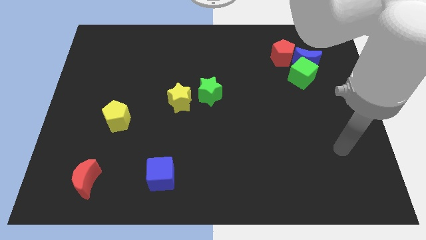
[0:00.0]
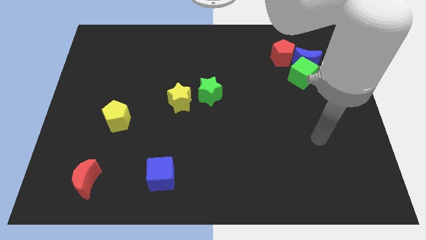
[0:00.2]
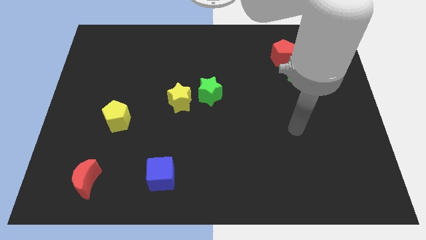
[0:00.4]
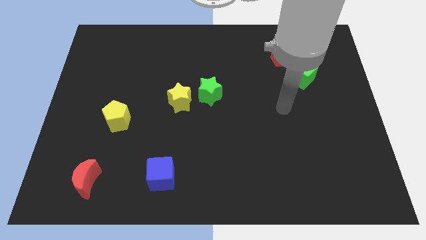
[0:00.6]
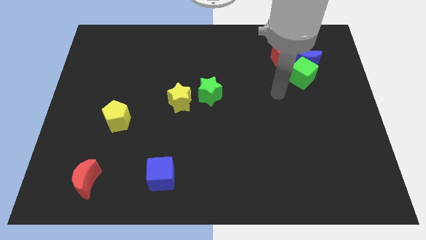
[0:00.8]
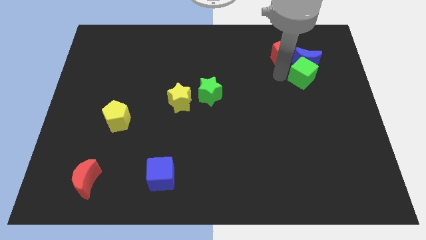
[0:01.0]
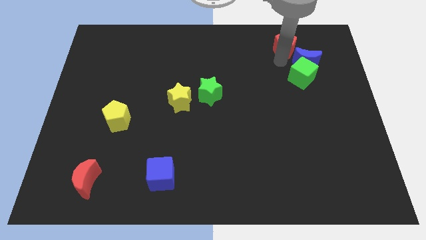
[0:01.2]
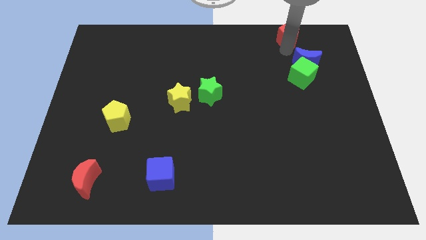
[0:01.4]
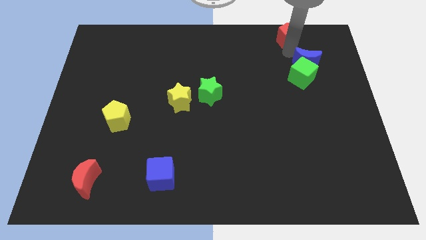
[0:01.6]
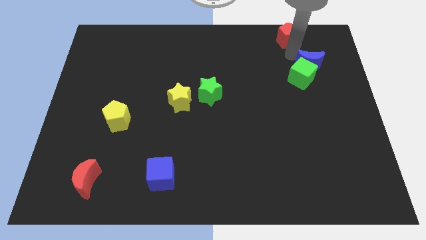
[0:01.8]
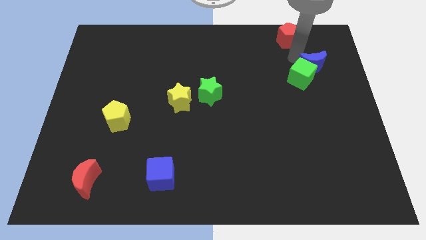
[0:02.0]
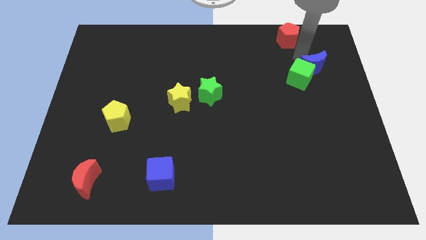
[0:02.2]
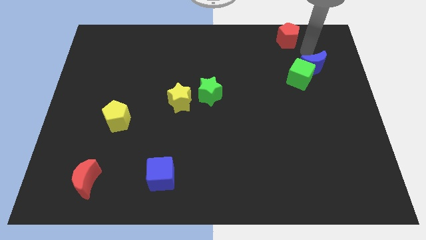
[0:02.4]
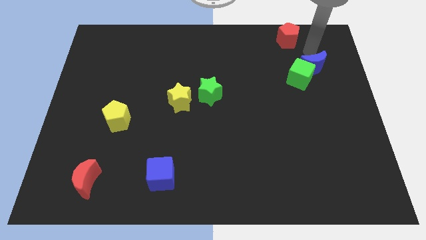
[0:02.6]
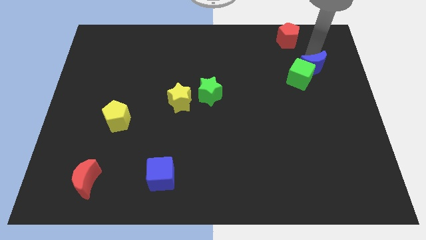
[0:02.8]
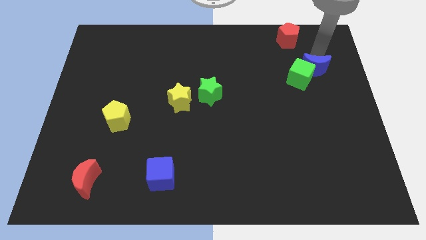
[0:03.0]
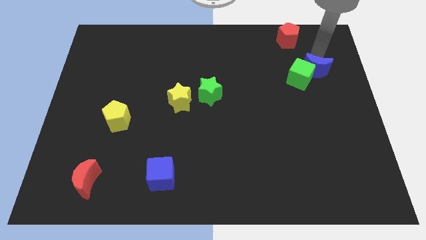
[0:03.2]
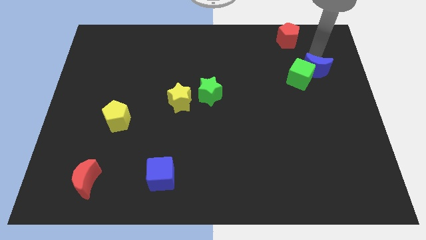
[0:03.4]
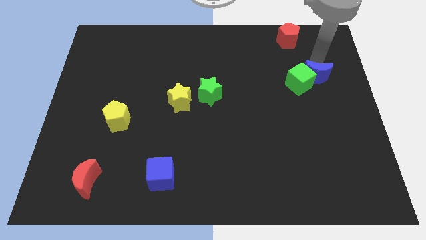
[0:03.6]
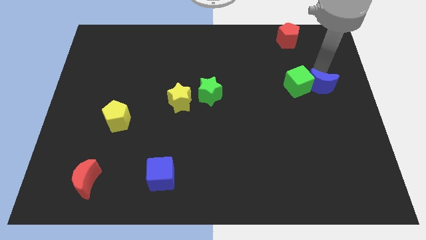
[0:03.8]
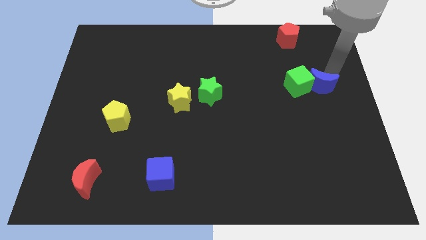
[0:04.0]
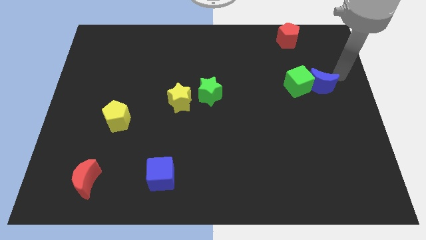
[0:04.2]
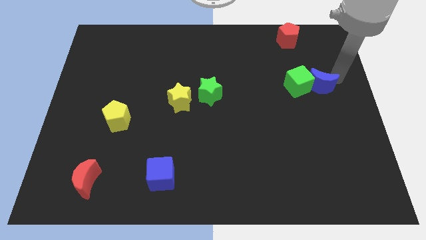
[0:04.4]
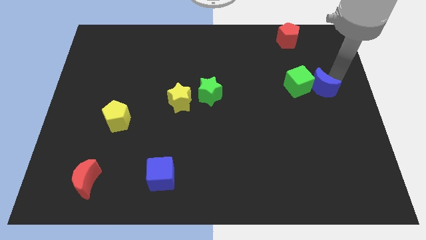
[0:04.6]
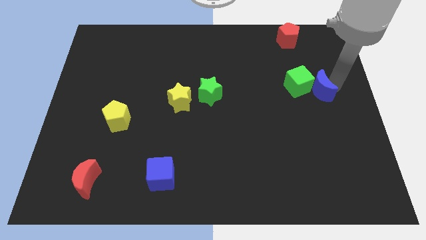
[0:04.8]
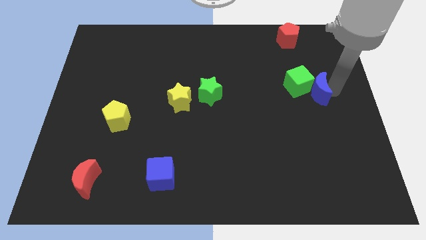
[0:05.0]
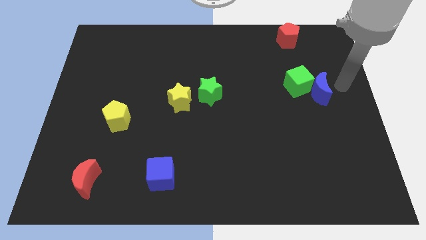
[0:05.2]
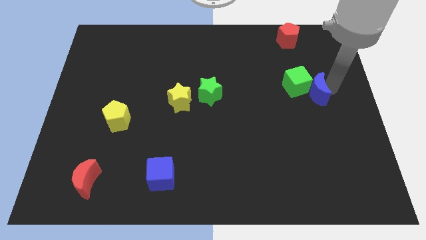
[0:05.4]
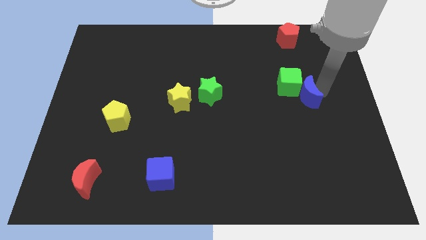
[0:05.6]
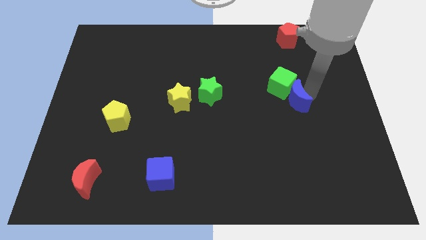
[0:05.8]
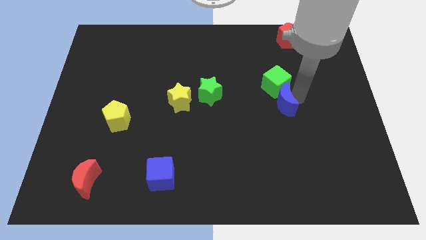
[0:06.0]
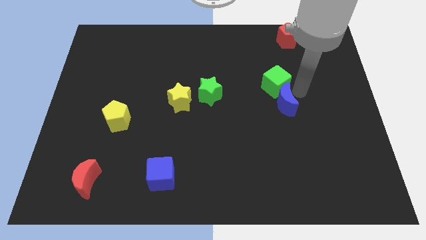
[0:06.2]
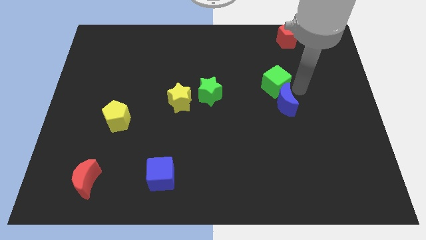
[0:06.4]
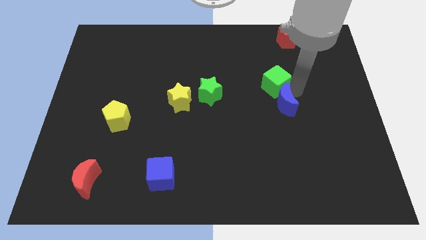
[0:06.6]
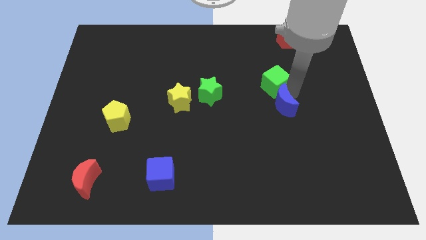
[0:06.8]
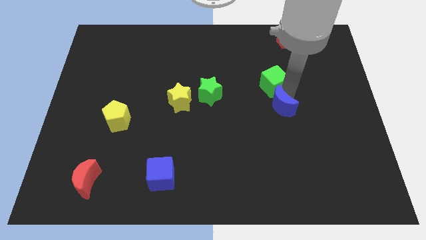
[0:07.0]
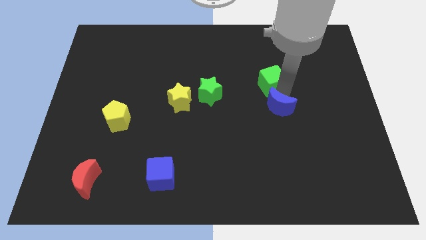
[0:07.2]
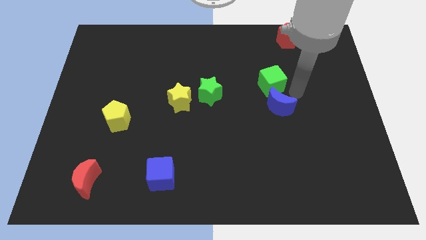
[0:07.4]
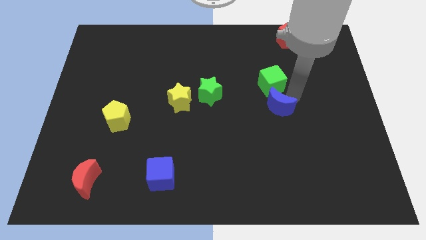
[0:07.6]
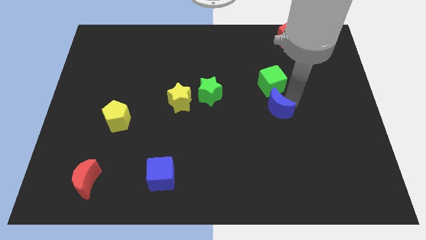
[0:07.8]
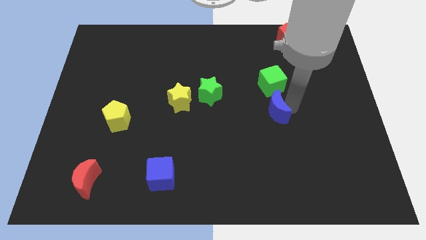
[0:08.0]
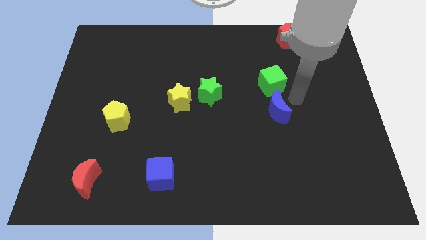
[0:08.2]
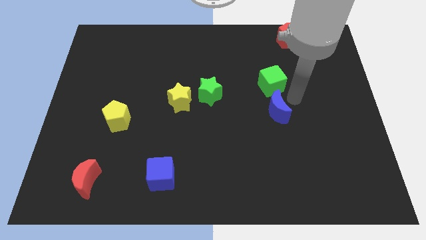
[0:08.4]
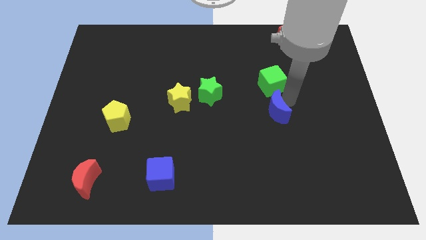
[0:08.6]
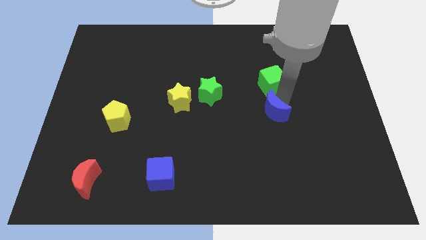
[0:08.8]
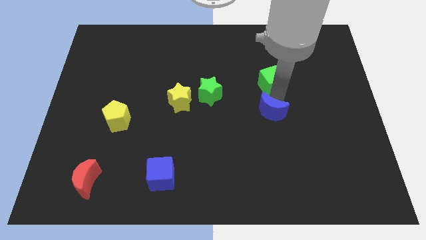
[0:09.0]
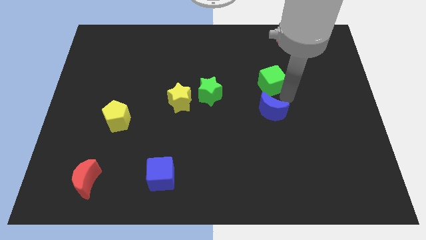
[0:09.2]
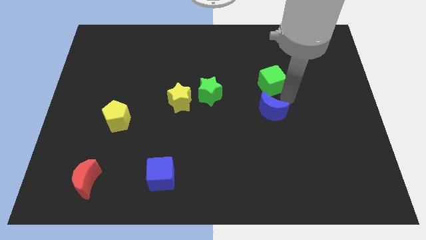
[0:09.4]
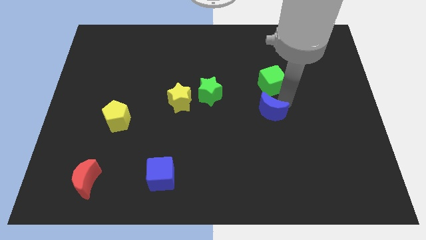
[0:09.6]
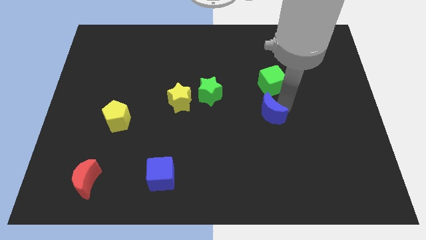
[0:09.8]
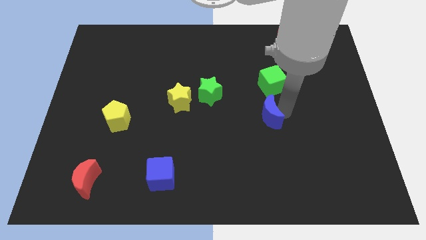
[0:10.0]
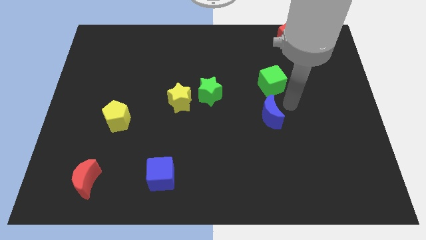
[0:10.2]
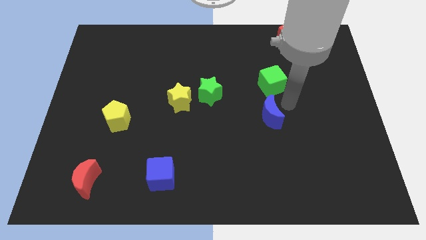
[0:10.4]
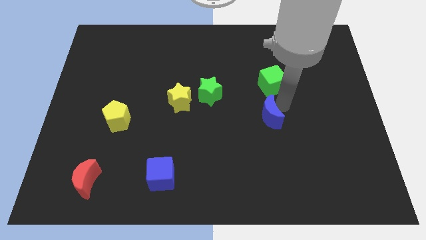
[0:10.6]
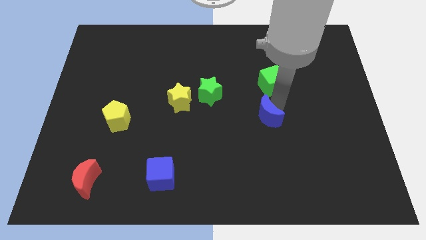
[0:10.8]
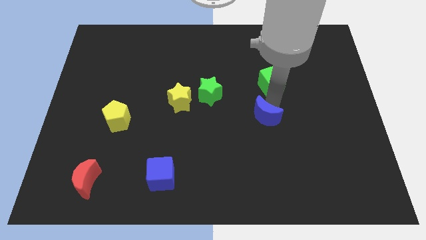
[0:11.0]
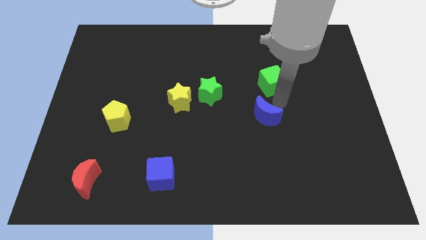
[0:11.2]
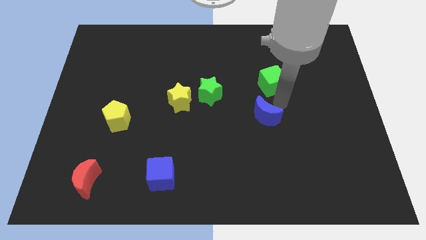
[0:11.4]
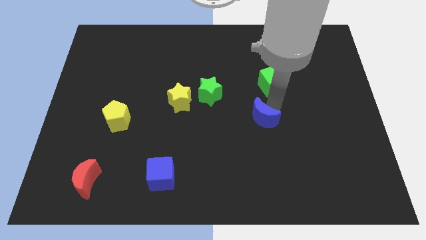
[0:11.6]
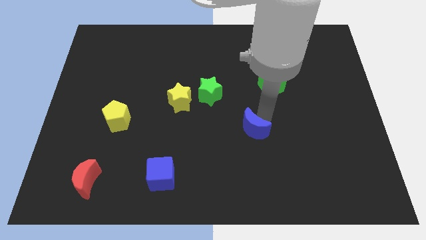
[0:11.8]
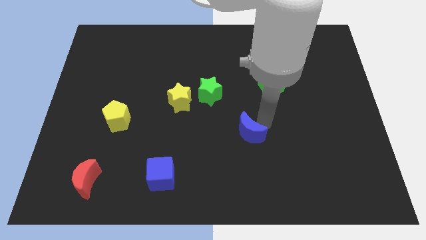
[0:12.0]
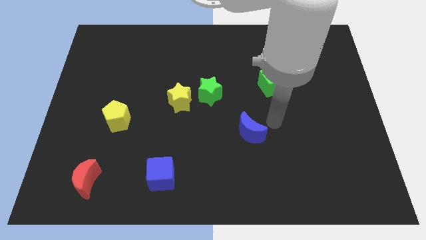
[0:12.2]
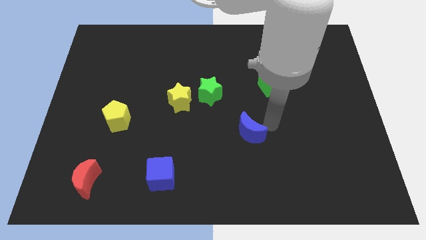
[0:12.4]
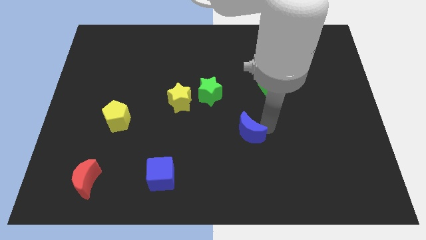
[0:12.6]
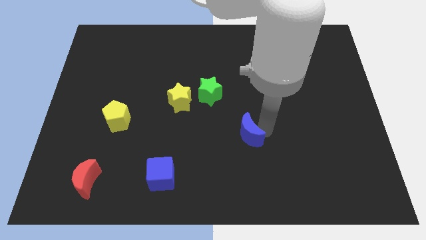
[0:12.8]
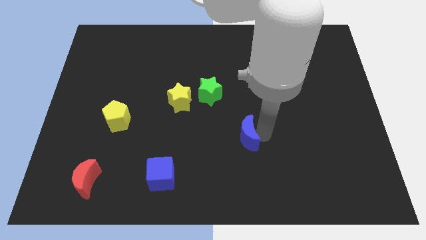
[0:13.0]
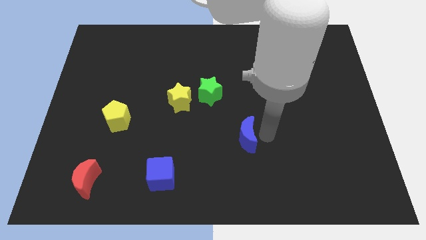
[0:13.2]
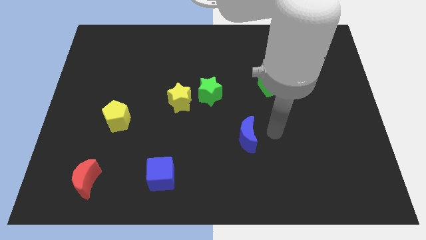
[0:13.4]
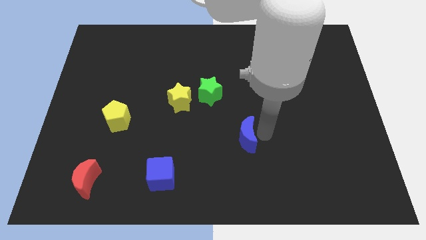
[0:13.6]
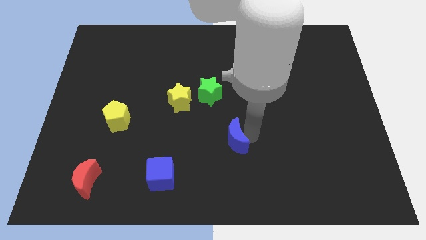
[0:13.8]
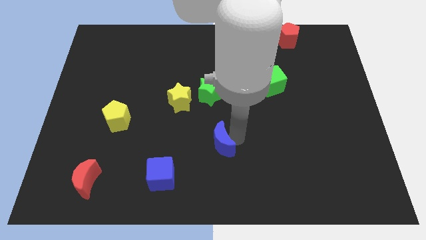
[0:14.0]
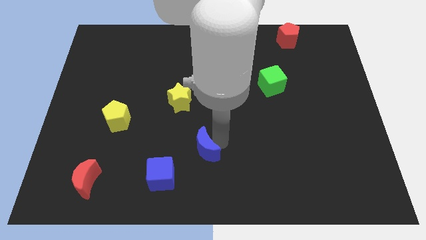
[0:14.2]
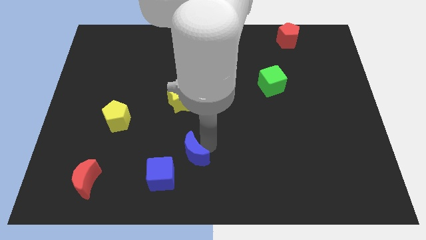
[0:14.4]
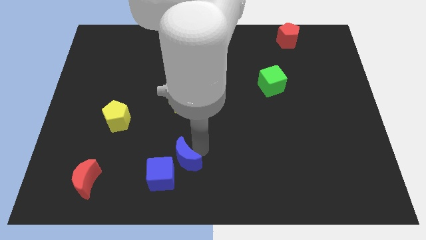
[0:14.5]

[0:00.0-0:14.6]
move the blue moon next to the blue cube
